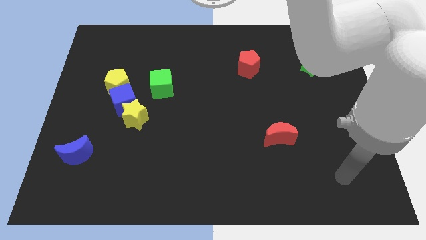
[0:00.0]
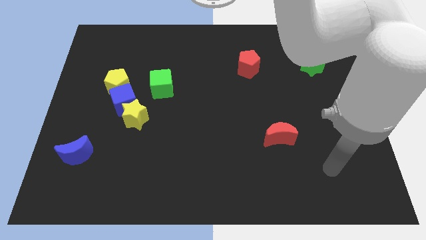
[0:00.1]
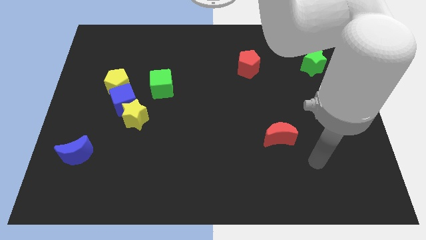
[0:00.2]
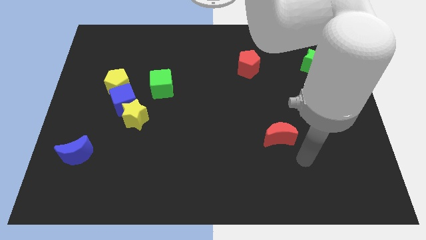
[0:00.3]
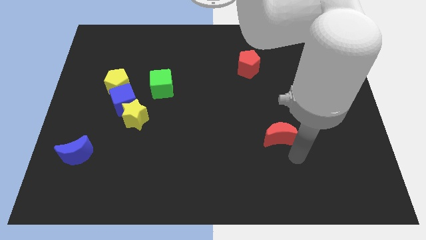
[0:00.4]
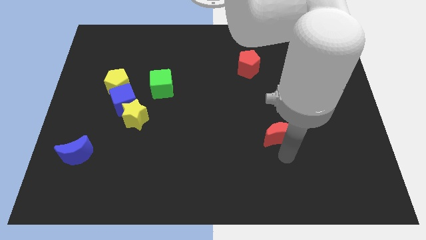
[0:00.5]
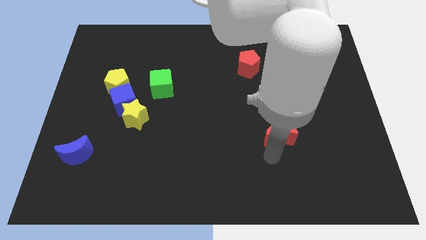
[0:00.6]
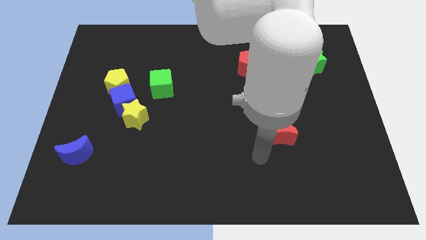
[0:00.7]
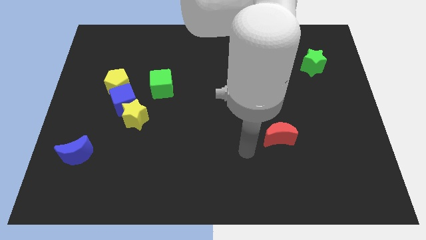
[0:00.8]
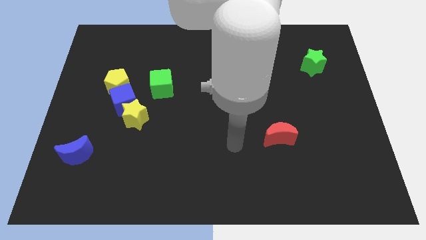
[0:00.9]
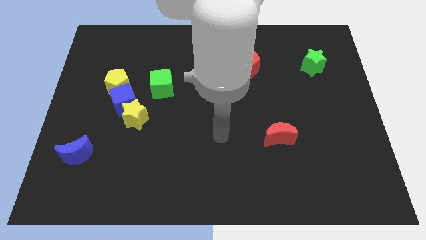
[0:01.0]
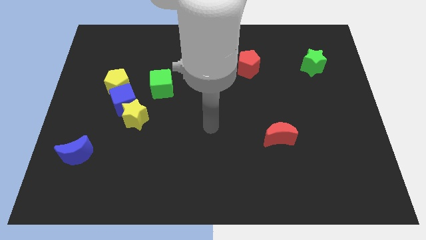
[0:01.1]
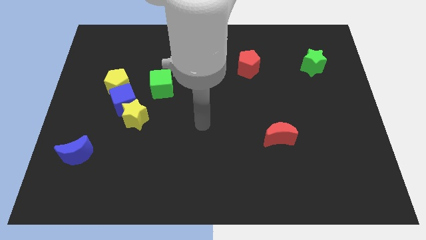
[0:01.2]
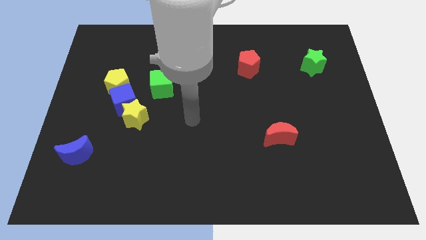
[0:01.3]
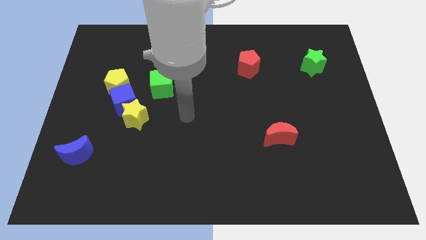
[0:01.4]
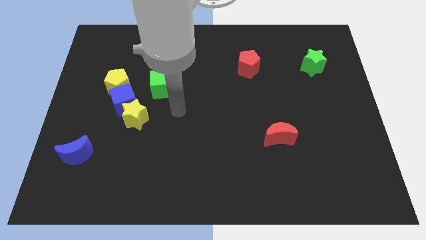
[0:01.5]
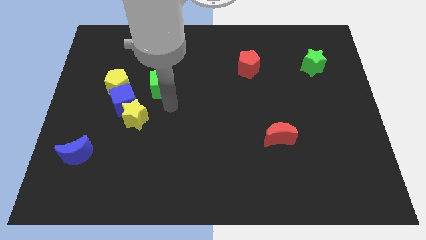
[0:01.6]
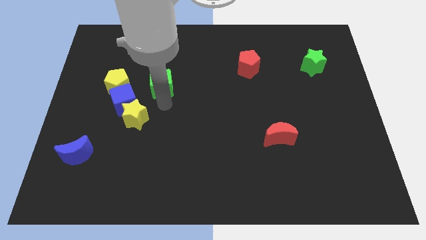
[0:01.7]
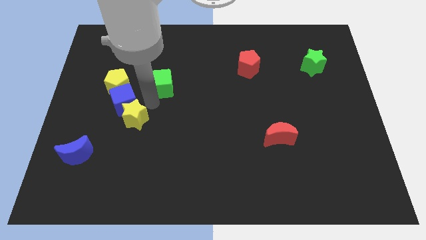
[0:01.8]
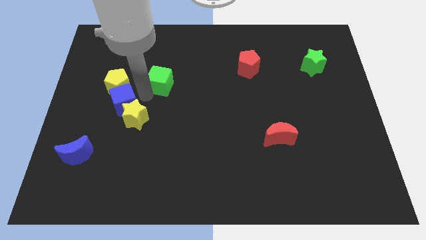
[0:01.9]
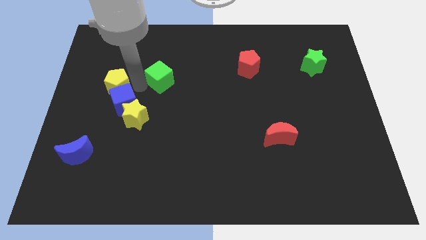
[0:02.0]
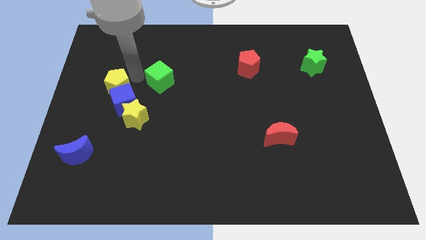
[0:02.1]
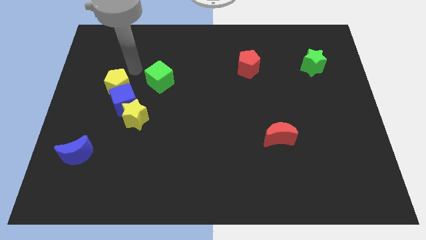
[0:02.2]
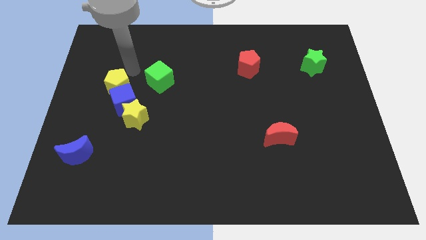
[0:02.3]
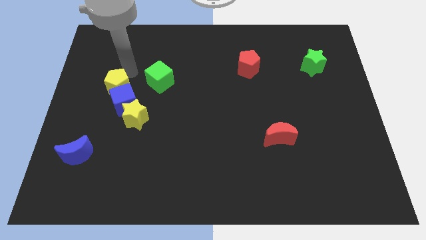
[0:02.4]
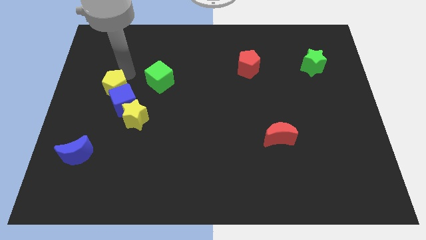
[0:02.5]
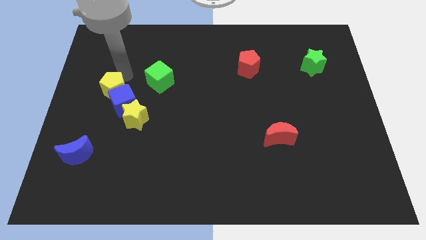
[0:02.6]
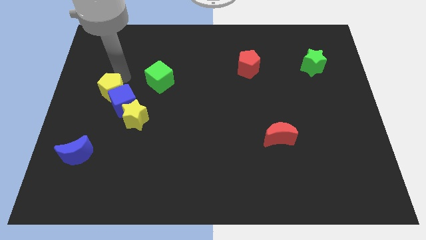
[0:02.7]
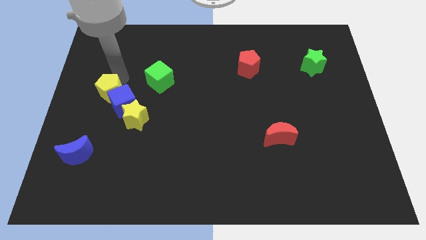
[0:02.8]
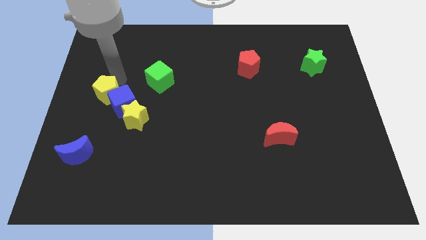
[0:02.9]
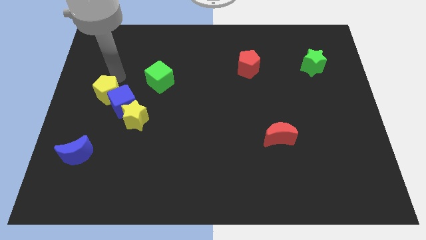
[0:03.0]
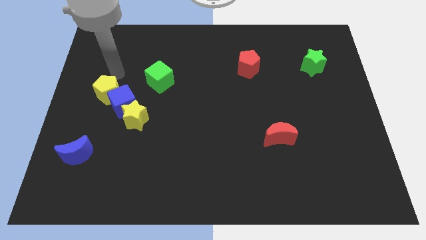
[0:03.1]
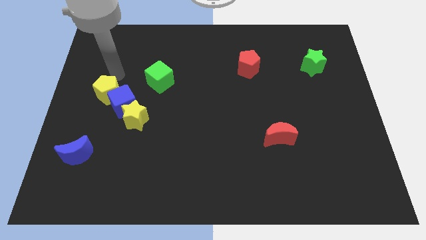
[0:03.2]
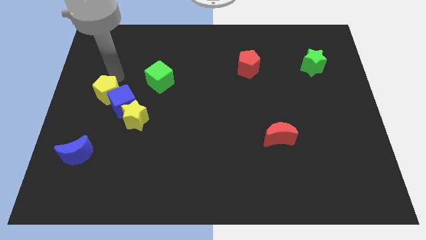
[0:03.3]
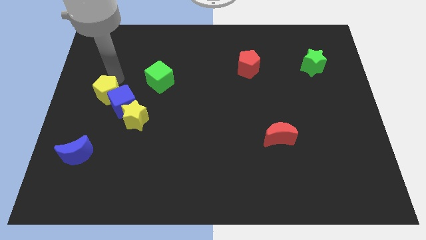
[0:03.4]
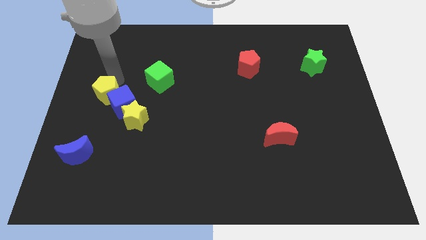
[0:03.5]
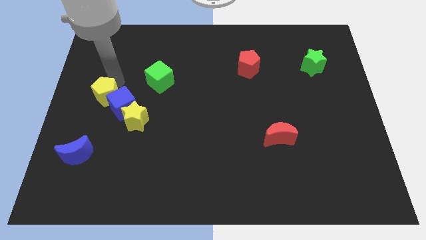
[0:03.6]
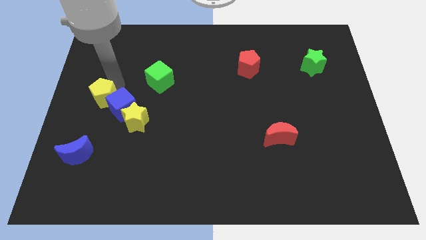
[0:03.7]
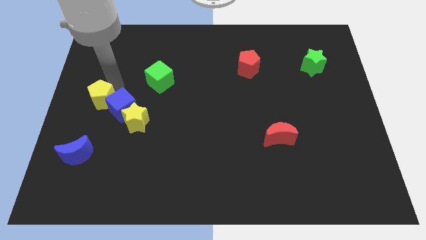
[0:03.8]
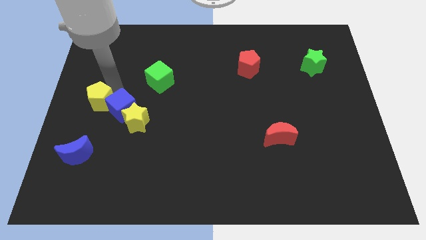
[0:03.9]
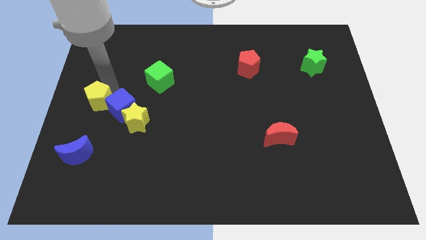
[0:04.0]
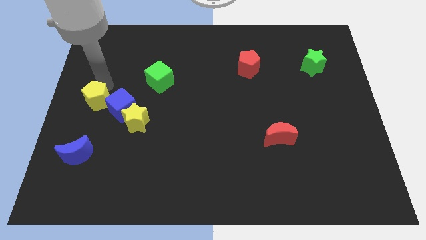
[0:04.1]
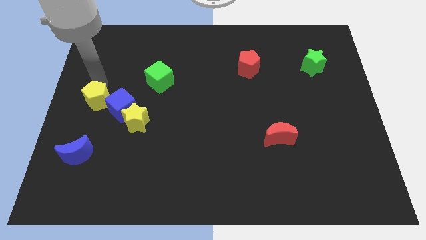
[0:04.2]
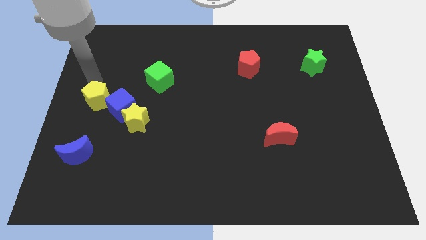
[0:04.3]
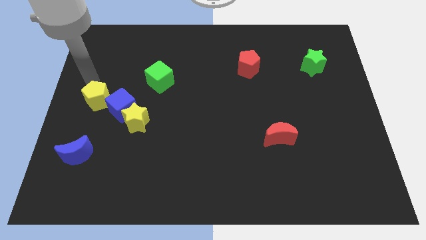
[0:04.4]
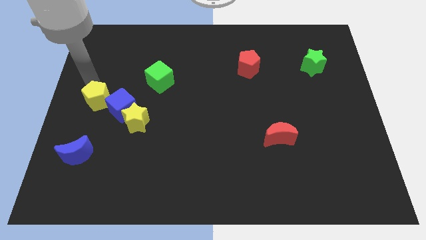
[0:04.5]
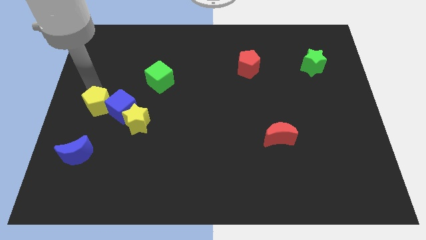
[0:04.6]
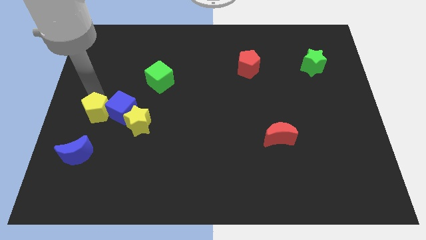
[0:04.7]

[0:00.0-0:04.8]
slide the yellow pentagon a little bit downwards

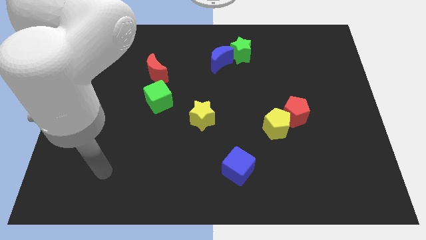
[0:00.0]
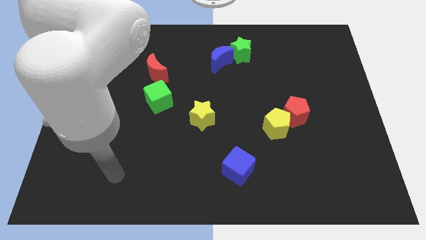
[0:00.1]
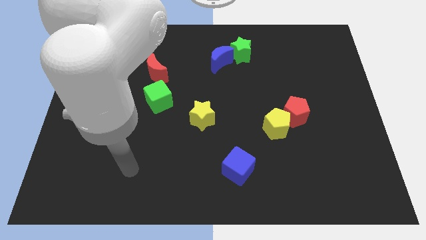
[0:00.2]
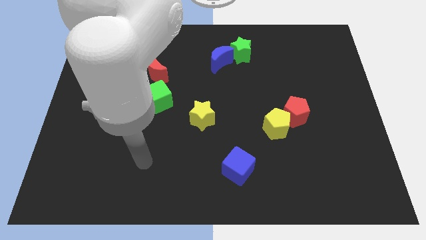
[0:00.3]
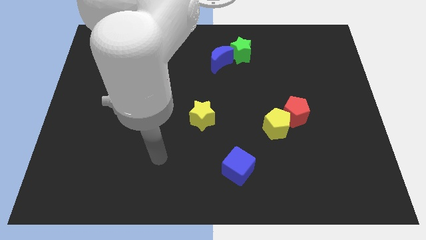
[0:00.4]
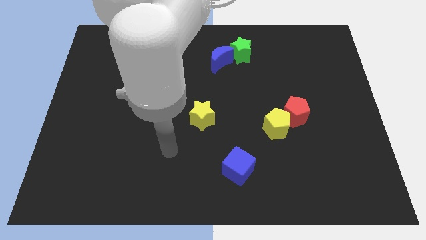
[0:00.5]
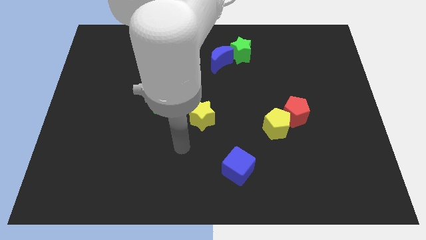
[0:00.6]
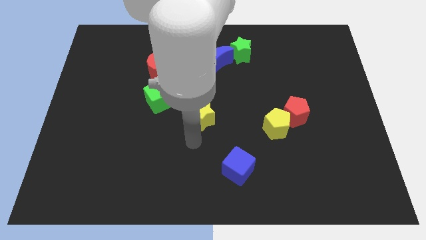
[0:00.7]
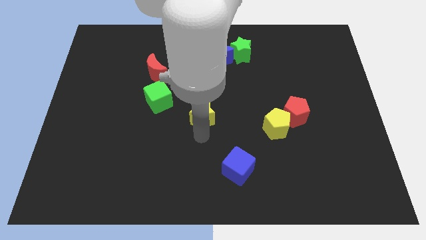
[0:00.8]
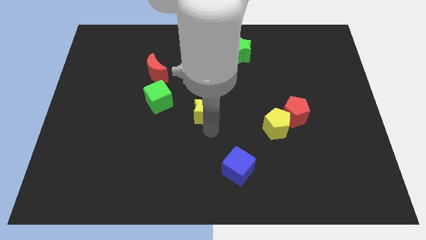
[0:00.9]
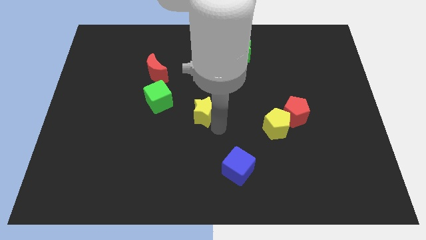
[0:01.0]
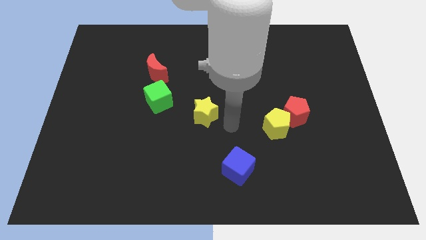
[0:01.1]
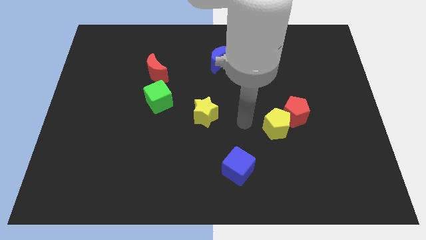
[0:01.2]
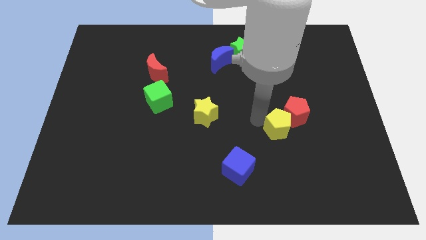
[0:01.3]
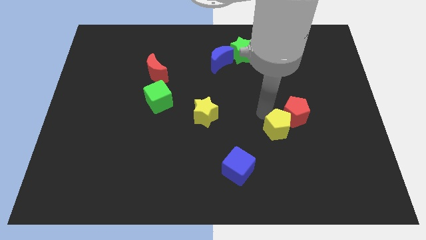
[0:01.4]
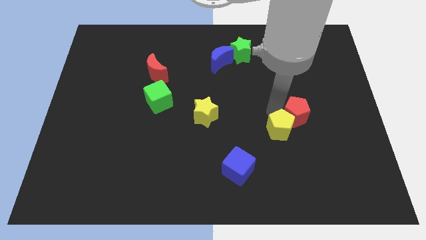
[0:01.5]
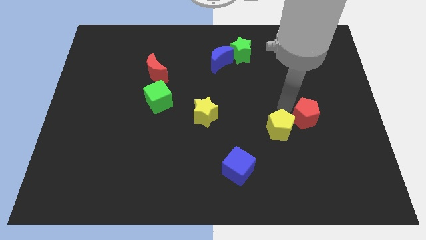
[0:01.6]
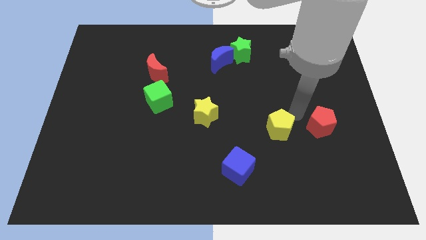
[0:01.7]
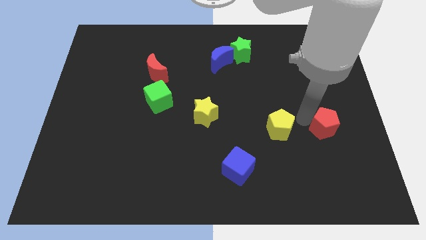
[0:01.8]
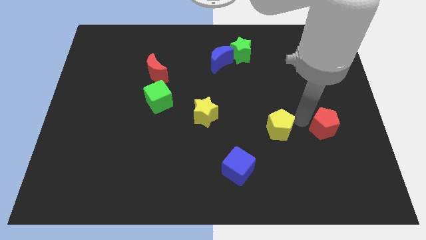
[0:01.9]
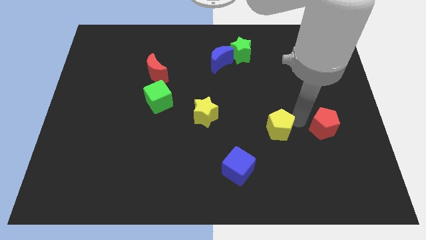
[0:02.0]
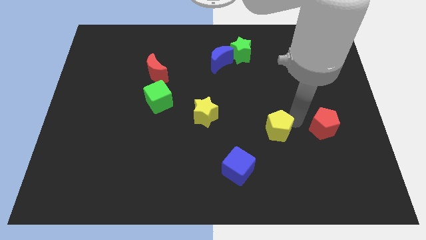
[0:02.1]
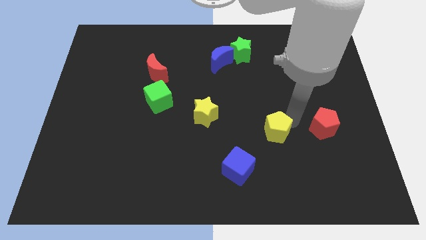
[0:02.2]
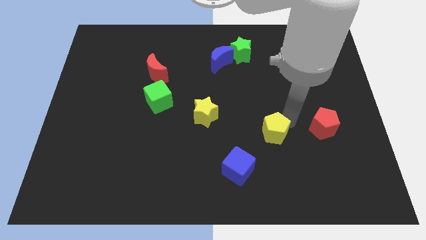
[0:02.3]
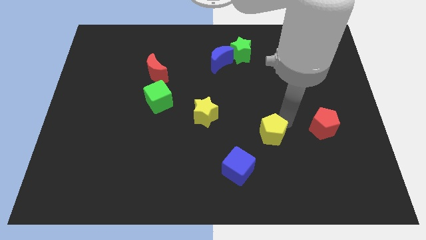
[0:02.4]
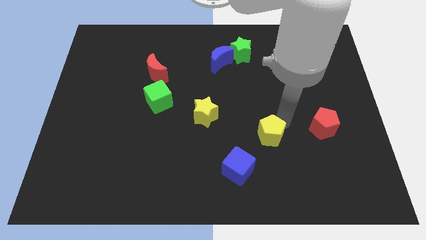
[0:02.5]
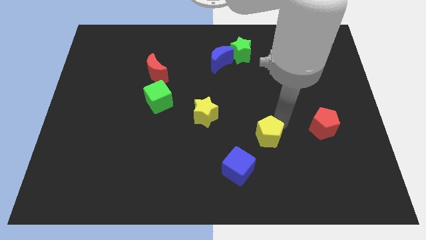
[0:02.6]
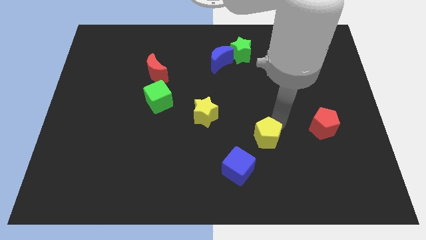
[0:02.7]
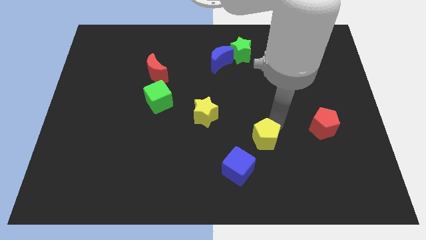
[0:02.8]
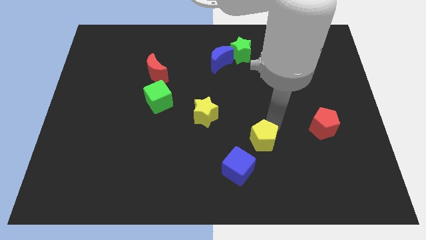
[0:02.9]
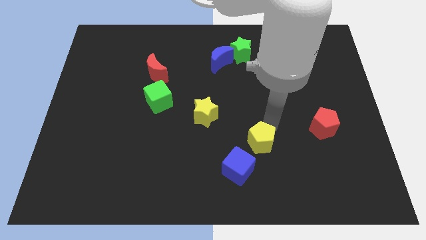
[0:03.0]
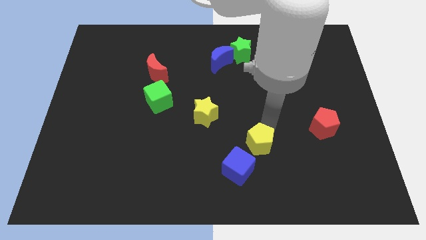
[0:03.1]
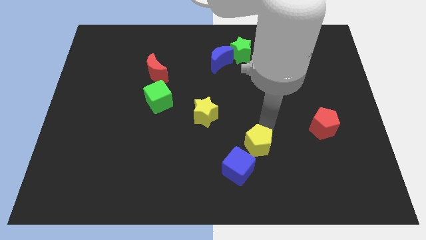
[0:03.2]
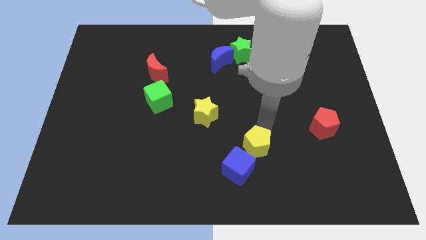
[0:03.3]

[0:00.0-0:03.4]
slightly push the yellow pentagon downwards and left diagonally
